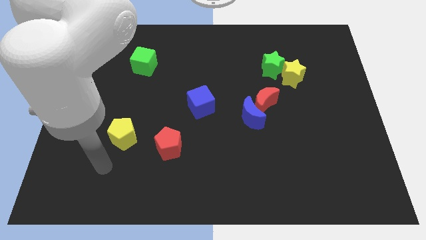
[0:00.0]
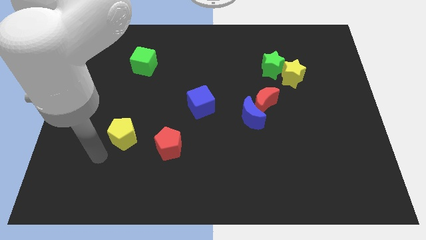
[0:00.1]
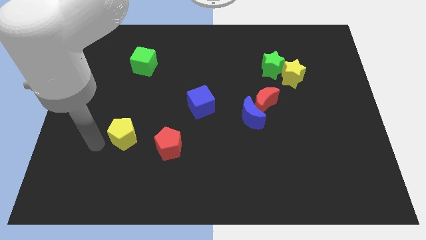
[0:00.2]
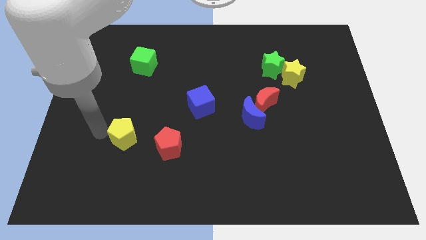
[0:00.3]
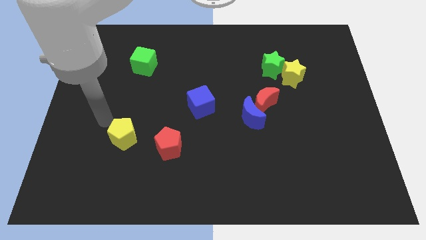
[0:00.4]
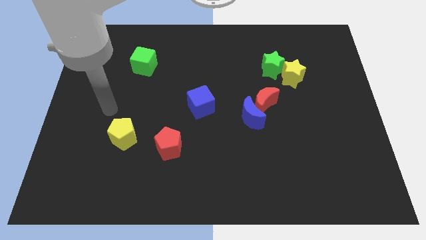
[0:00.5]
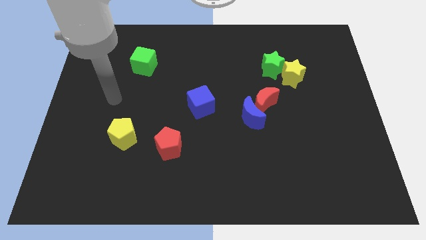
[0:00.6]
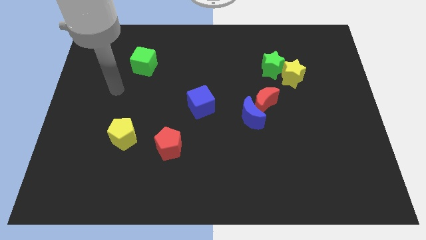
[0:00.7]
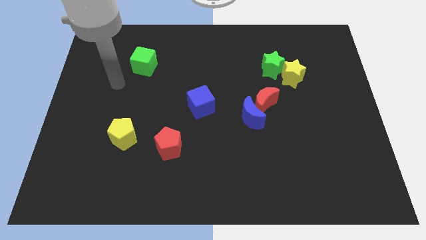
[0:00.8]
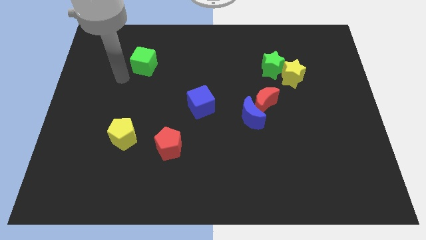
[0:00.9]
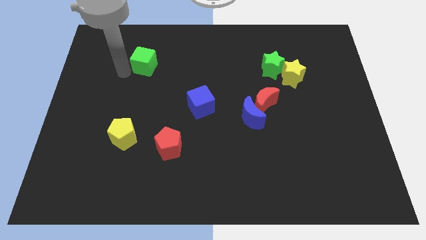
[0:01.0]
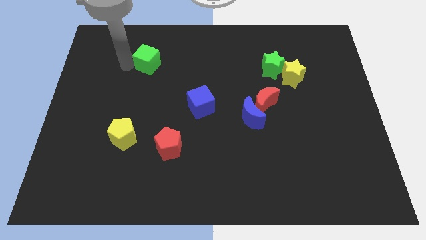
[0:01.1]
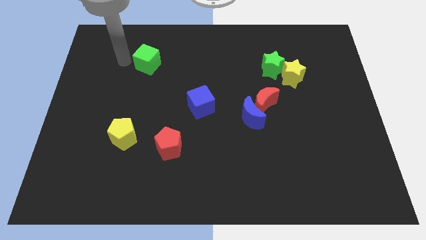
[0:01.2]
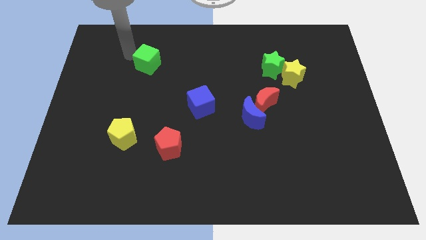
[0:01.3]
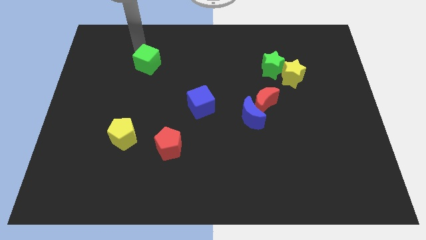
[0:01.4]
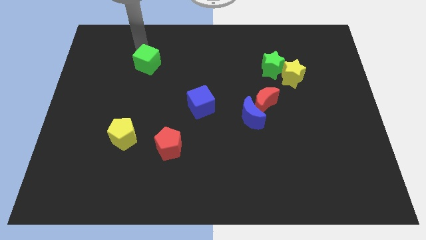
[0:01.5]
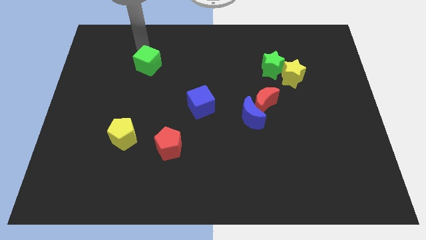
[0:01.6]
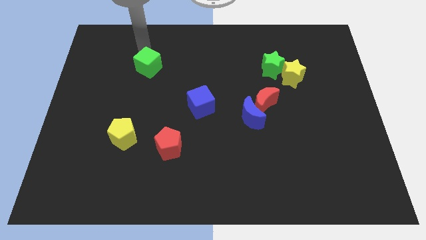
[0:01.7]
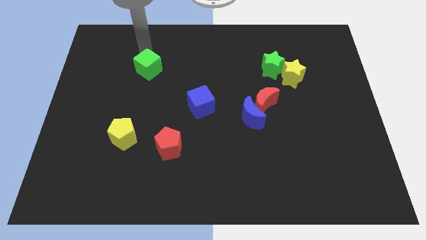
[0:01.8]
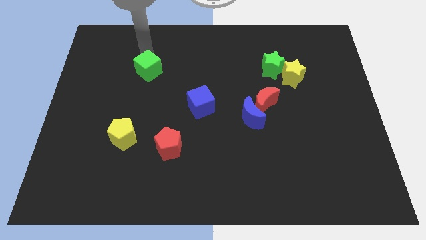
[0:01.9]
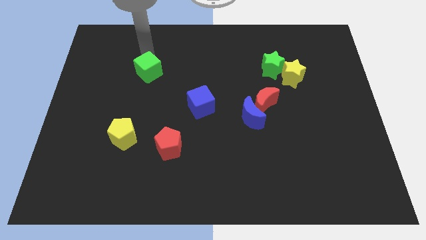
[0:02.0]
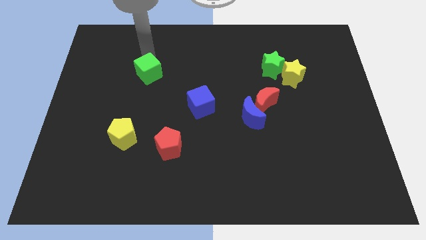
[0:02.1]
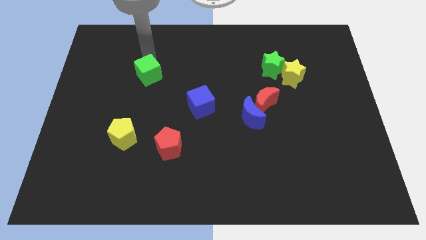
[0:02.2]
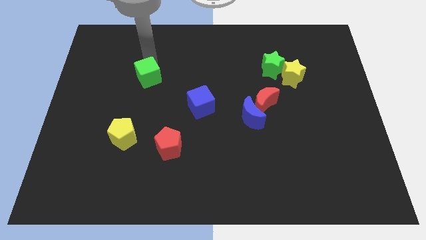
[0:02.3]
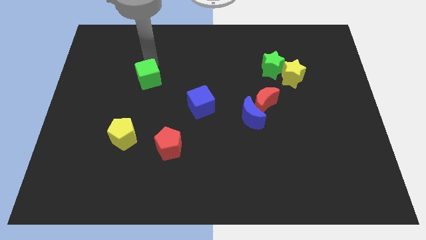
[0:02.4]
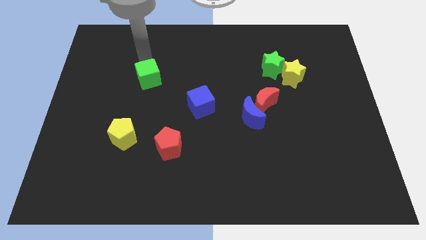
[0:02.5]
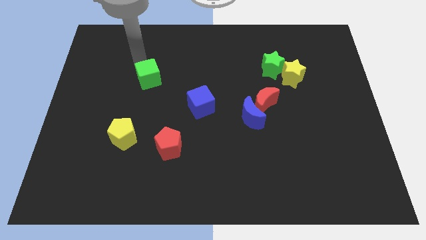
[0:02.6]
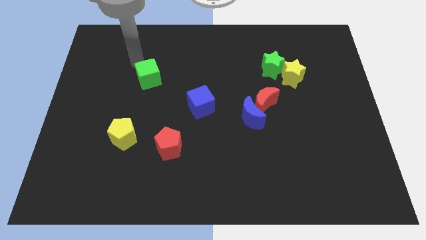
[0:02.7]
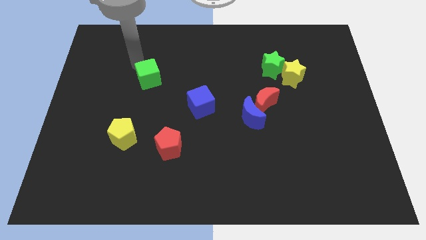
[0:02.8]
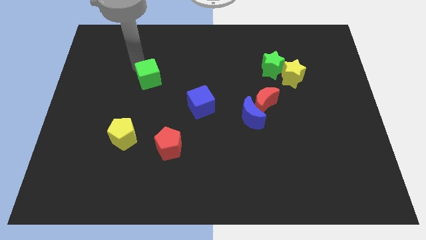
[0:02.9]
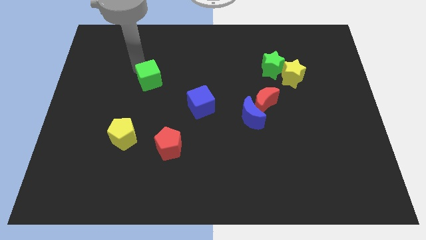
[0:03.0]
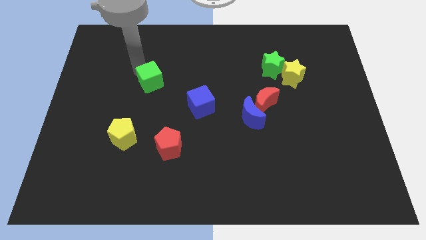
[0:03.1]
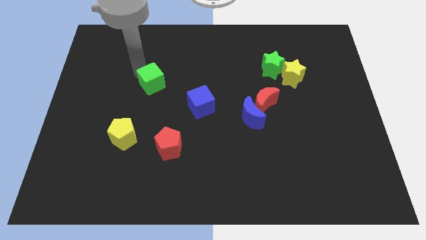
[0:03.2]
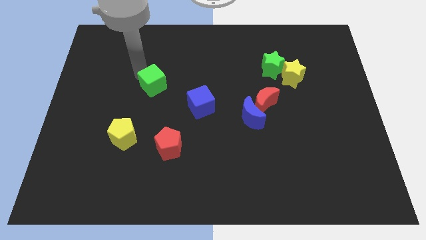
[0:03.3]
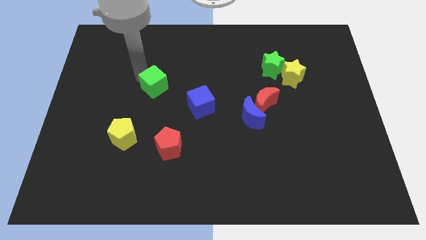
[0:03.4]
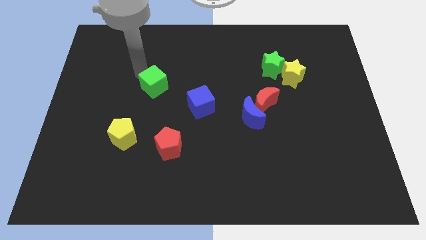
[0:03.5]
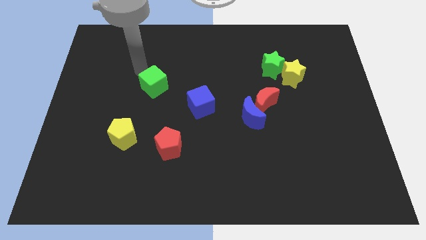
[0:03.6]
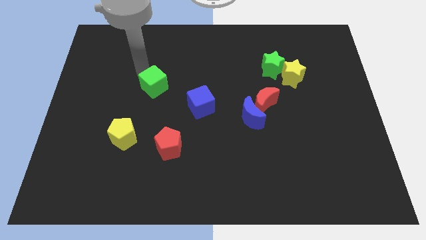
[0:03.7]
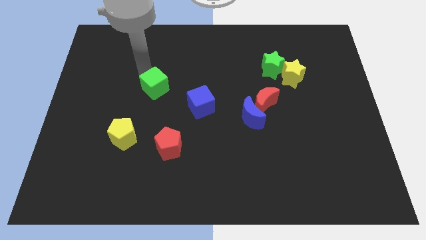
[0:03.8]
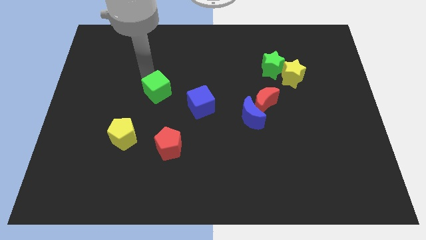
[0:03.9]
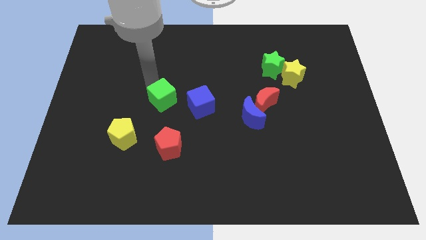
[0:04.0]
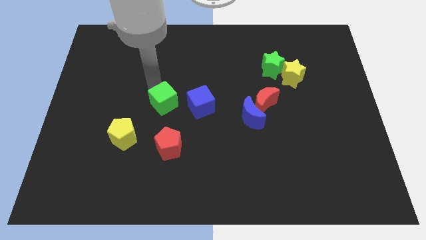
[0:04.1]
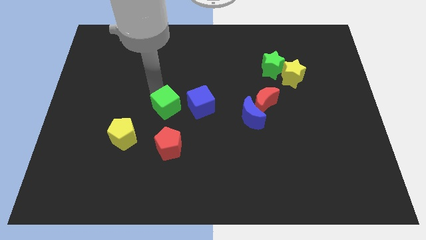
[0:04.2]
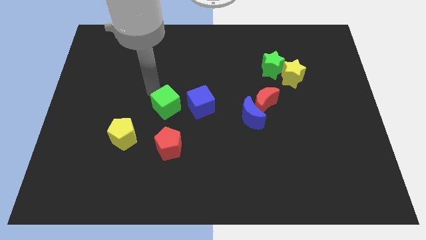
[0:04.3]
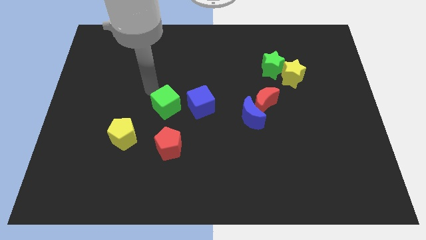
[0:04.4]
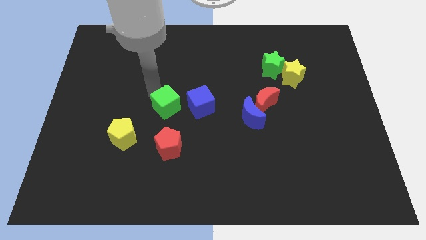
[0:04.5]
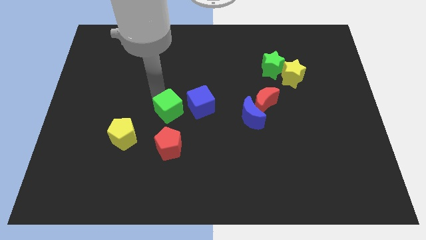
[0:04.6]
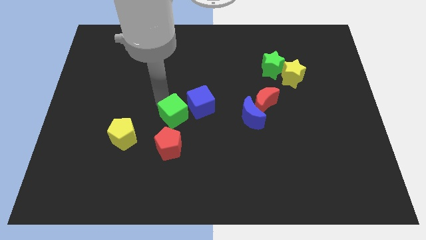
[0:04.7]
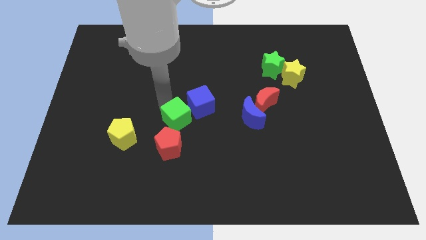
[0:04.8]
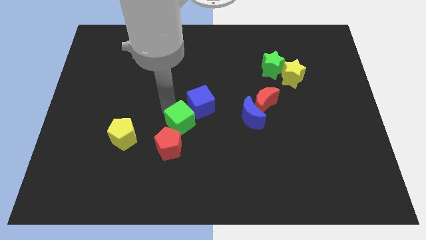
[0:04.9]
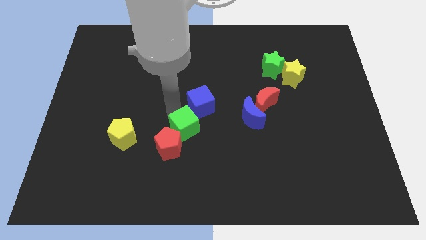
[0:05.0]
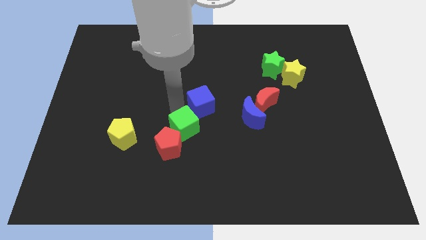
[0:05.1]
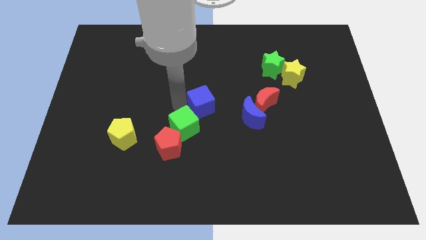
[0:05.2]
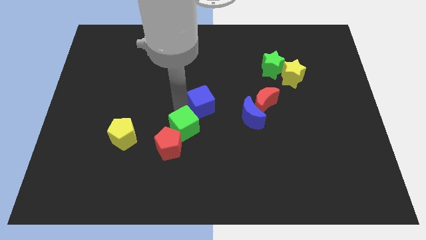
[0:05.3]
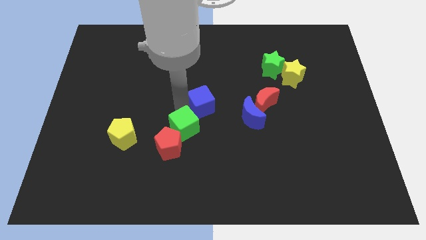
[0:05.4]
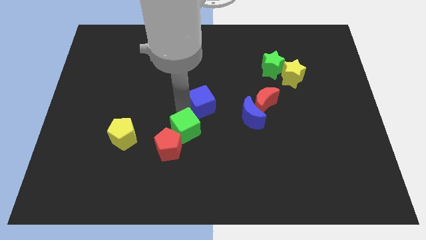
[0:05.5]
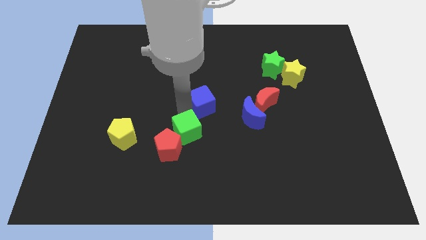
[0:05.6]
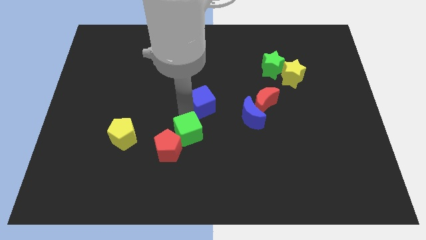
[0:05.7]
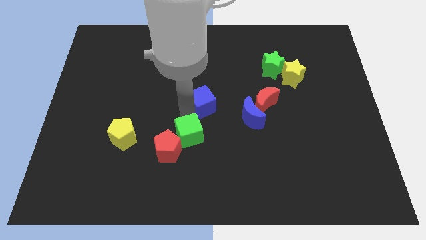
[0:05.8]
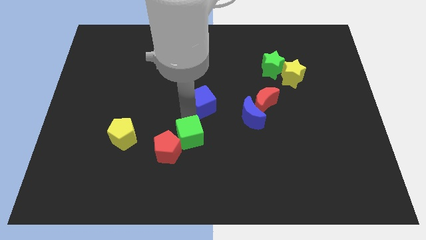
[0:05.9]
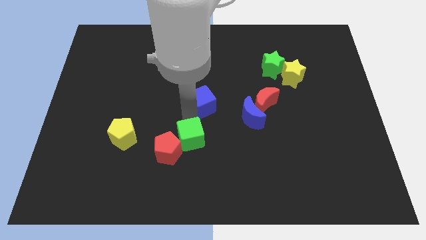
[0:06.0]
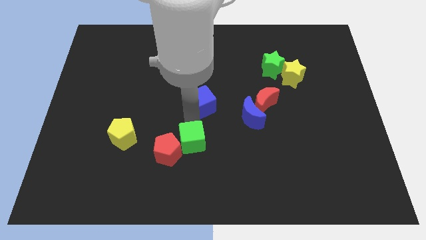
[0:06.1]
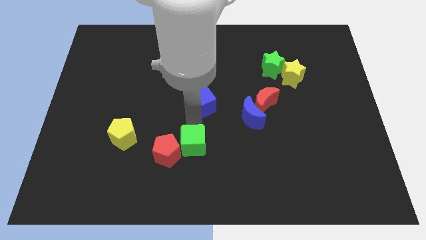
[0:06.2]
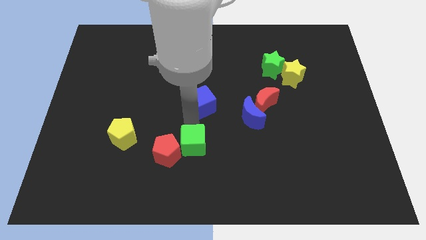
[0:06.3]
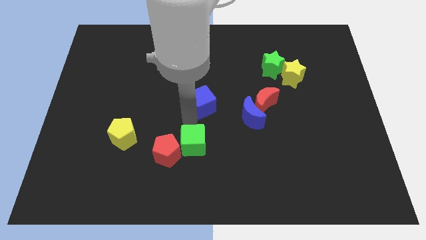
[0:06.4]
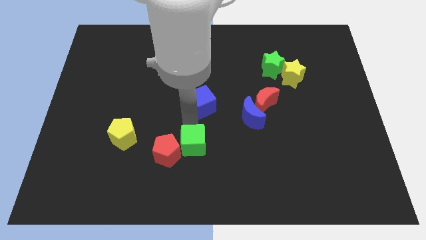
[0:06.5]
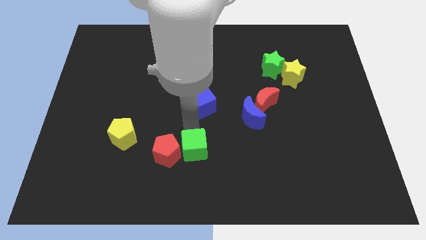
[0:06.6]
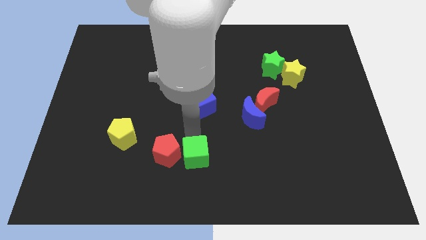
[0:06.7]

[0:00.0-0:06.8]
slide the green cube to the bottom
